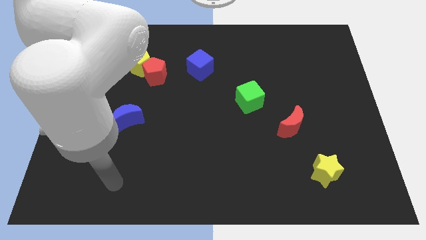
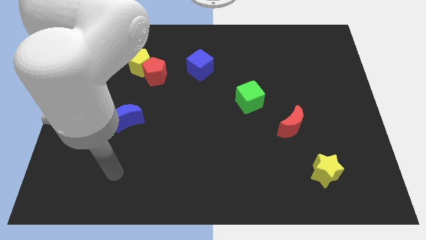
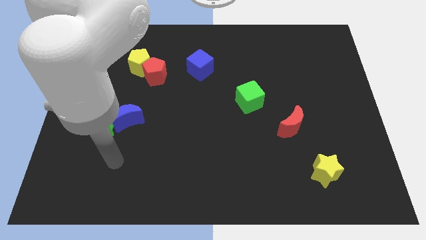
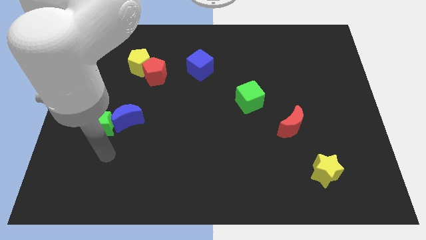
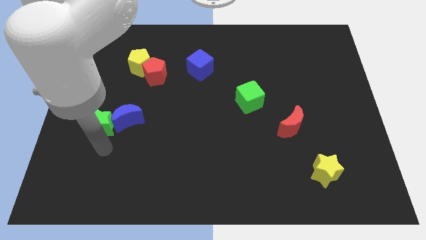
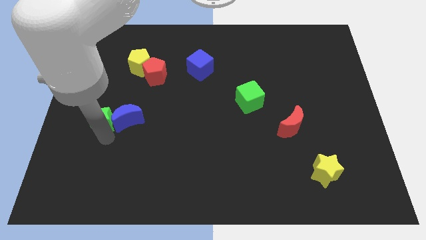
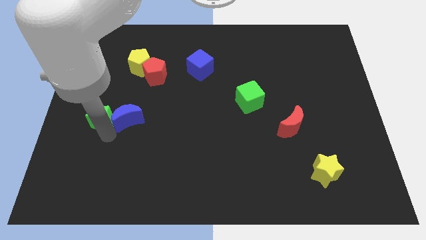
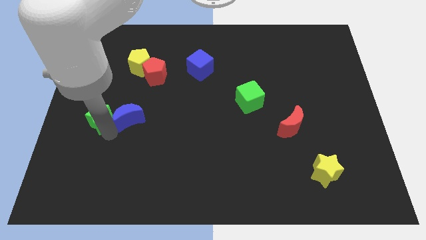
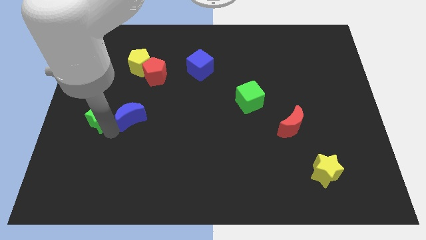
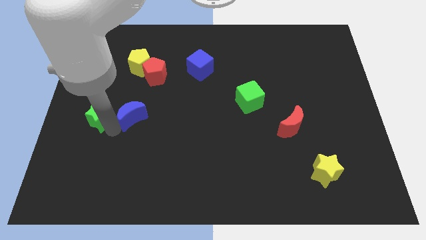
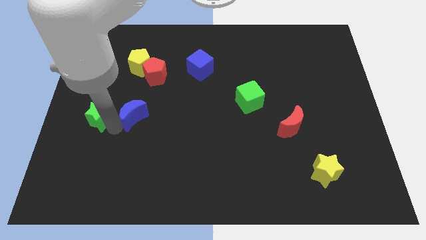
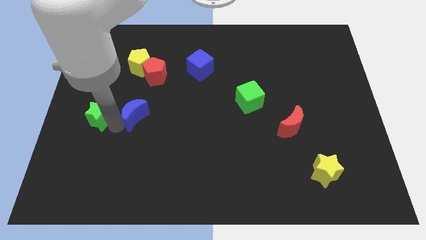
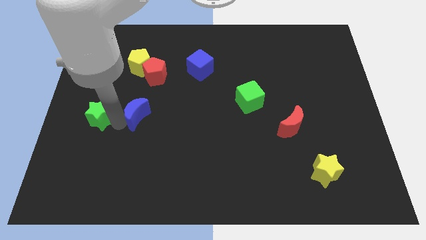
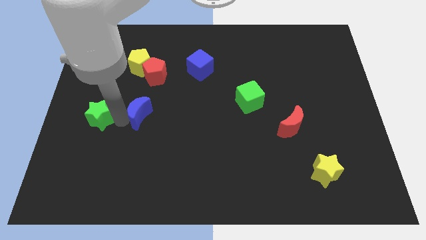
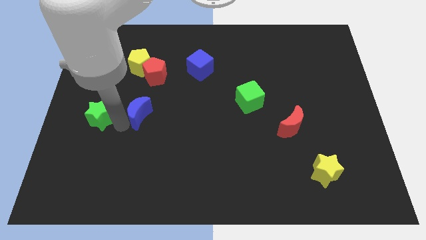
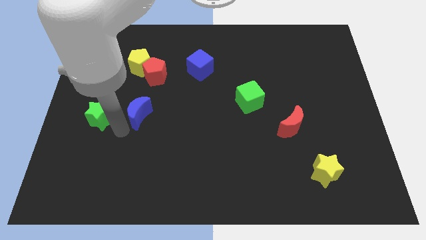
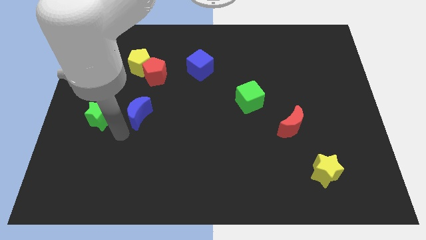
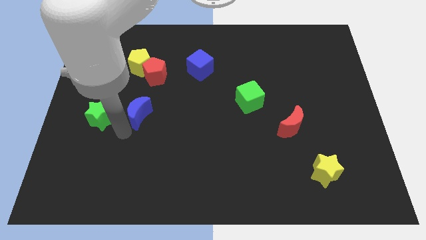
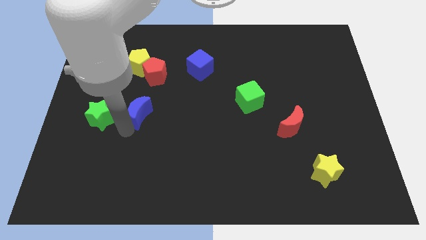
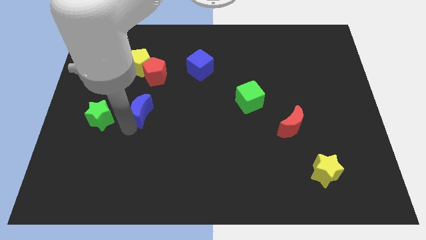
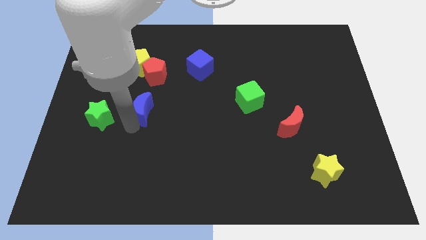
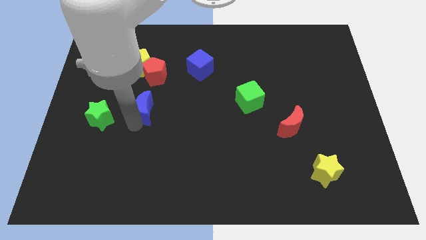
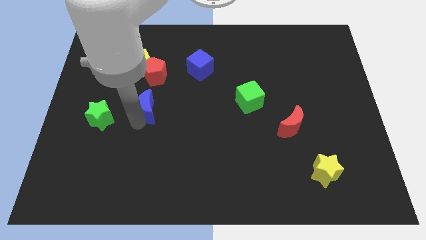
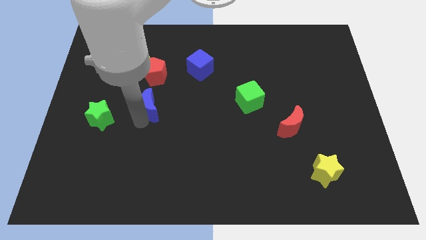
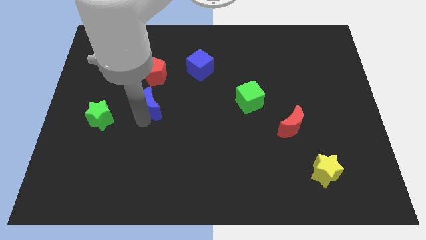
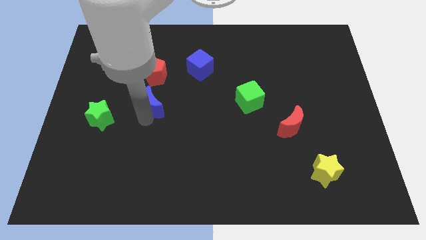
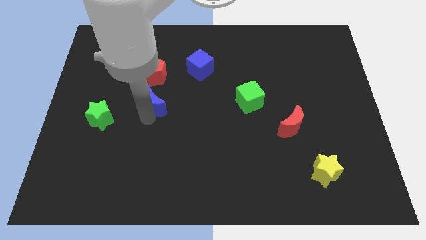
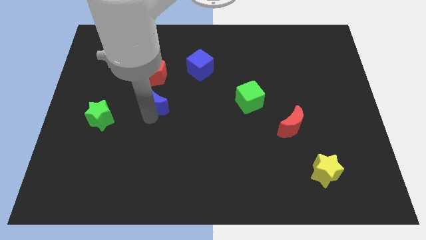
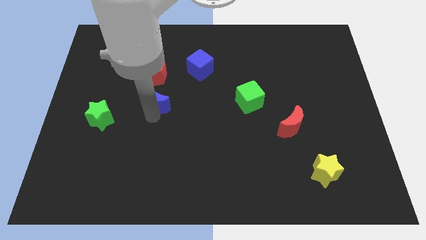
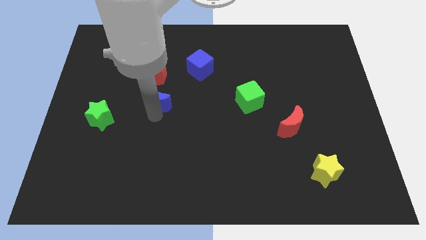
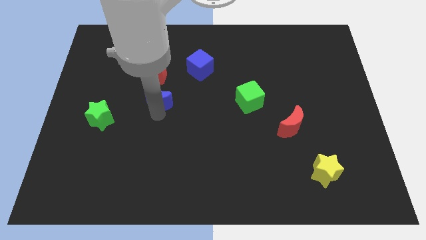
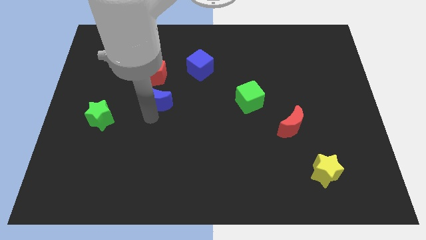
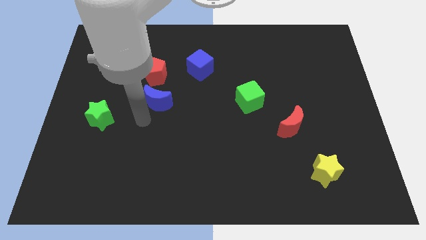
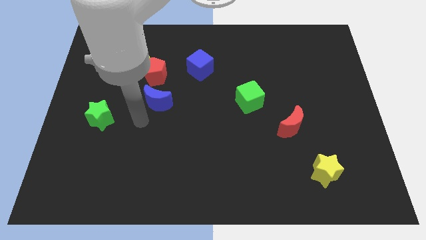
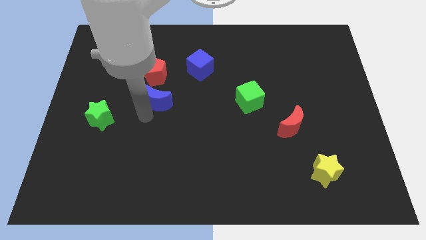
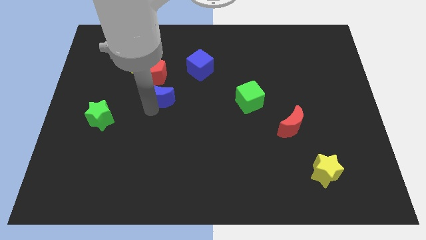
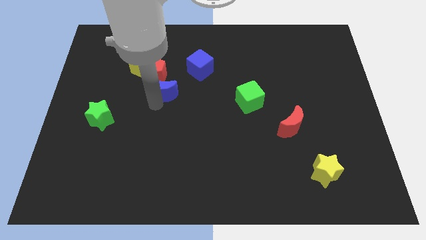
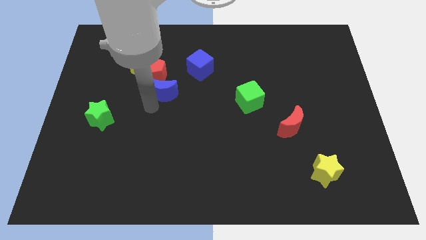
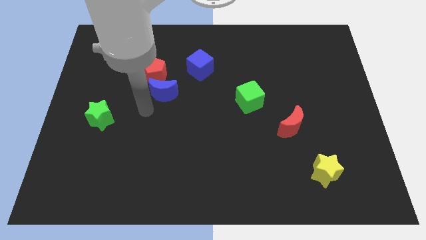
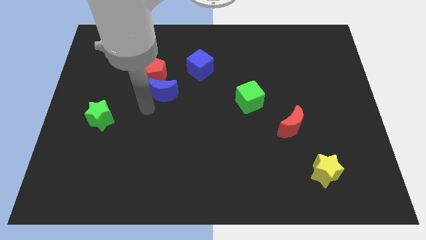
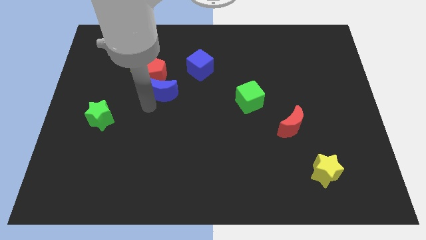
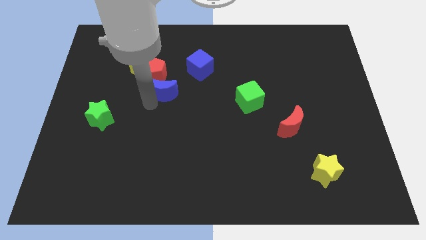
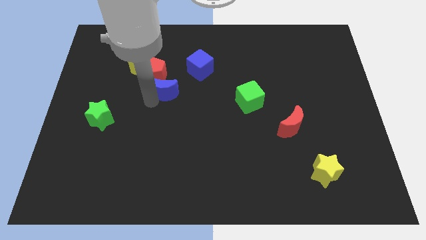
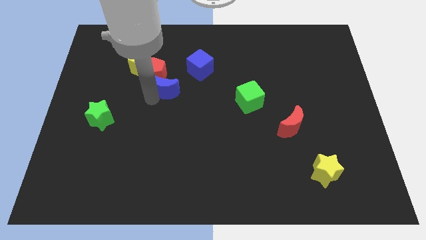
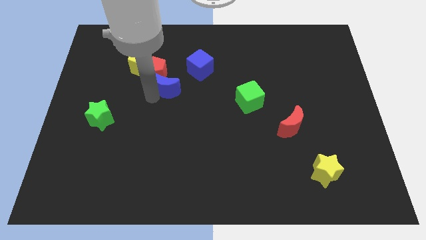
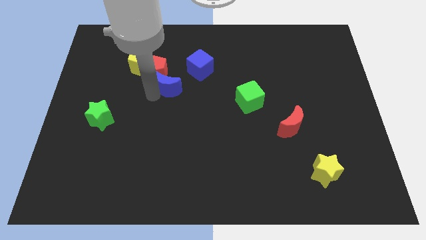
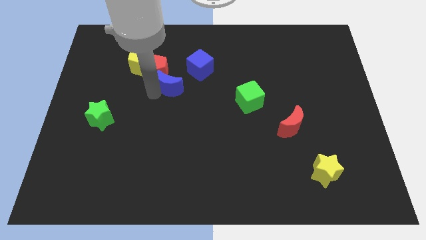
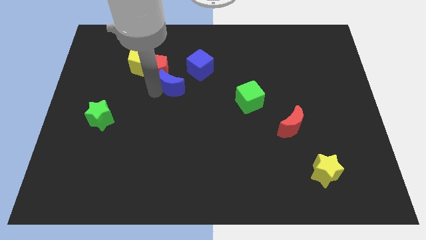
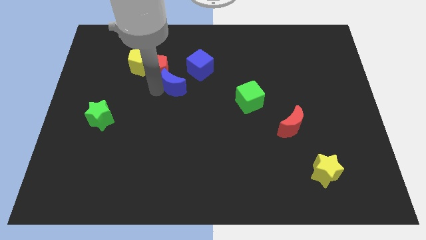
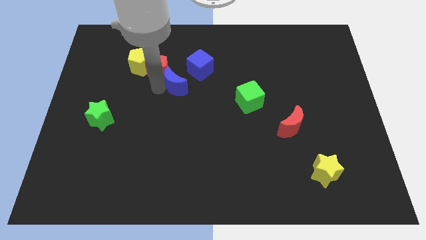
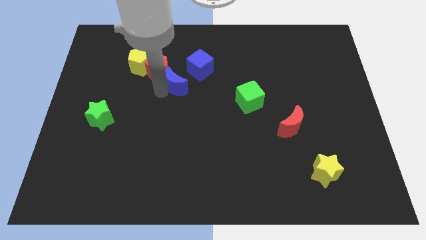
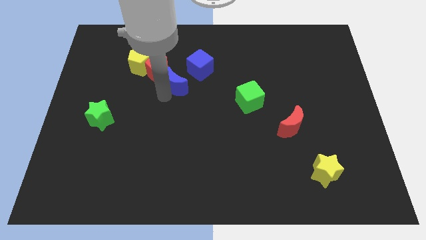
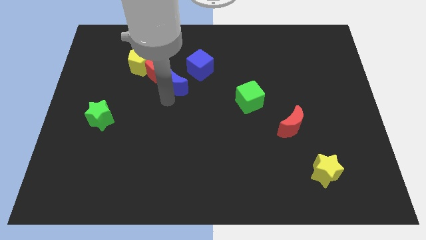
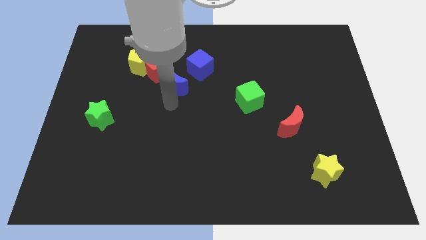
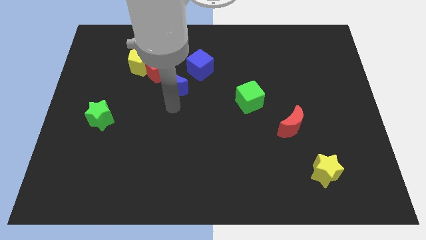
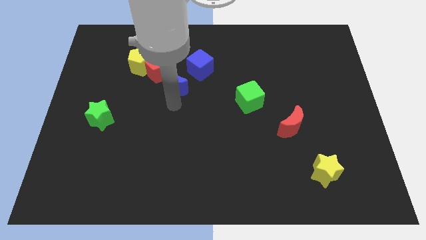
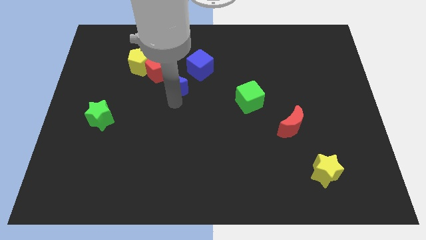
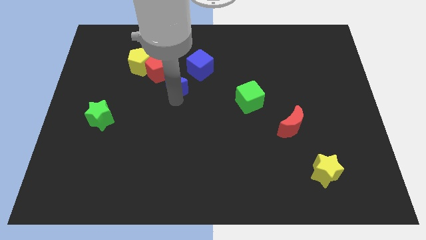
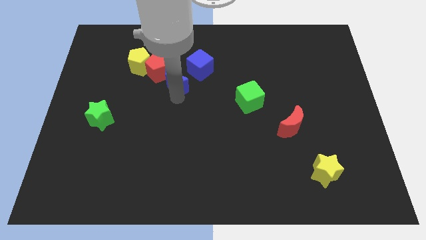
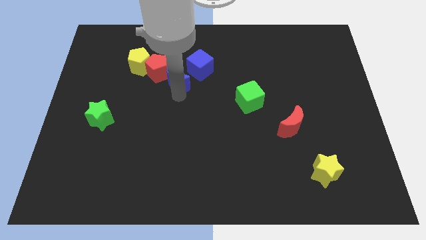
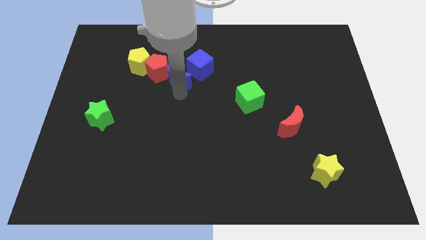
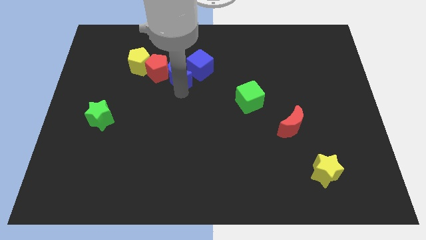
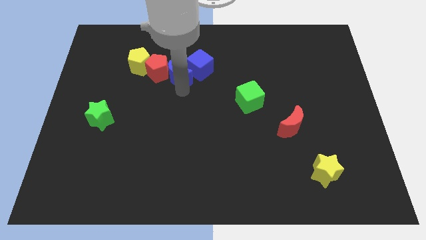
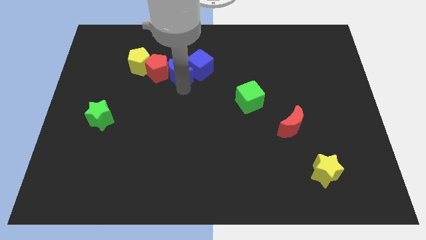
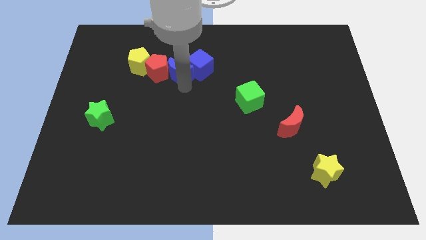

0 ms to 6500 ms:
move the blue moon to the top right side of the red pentagon

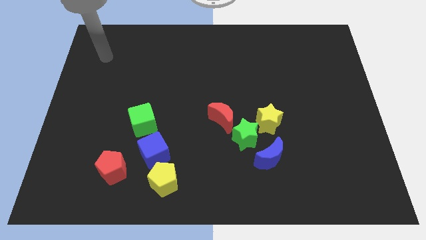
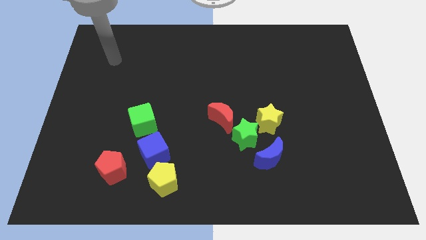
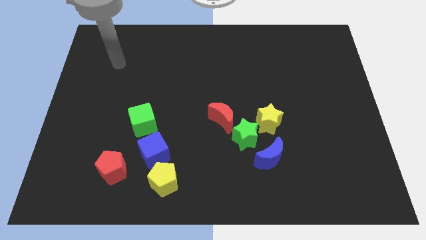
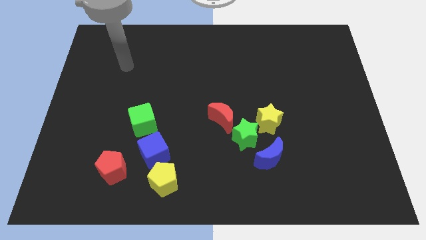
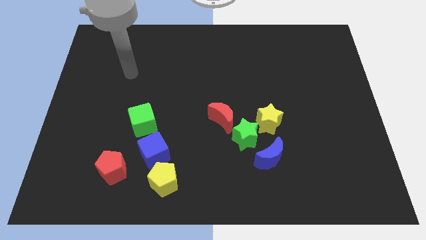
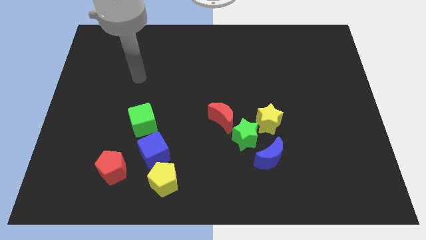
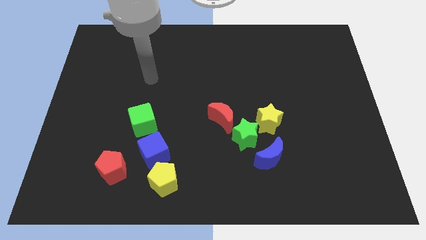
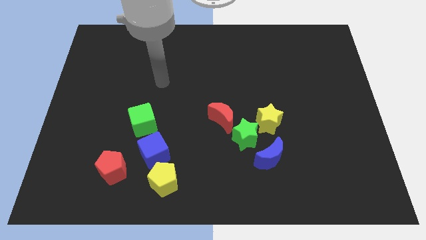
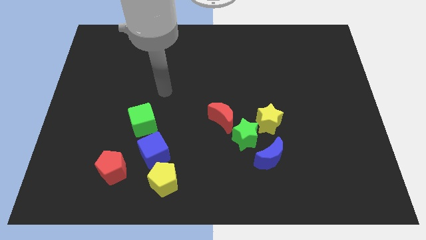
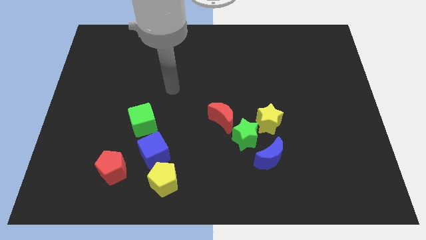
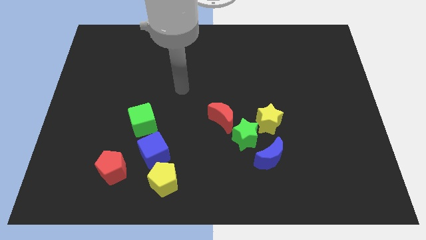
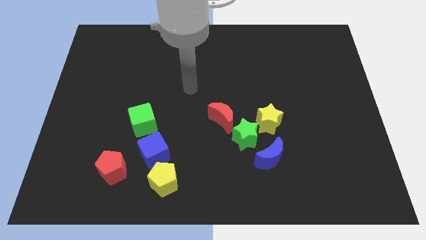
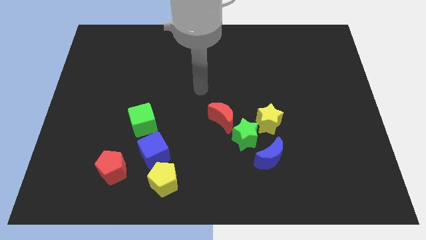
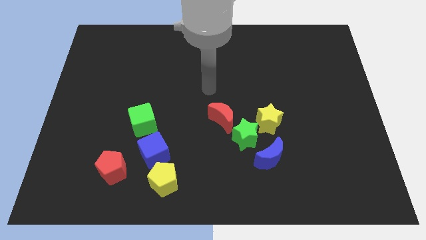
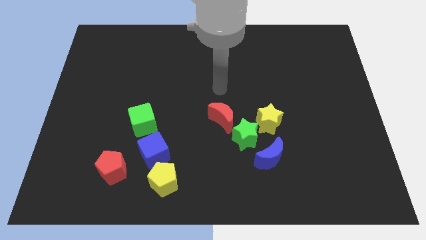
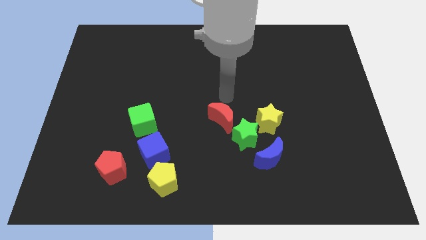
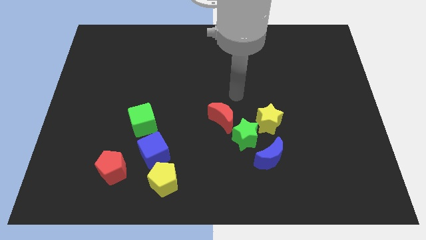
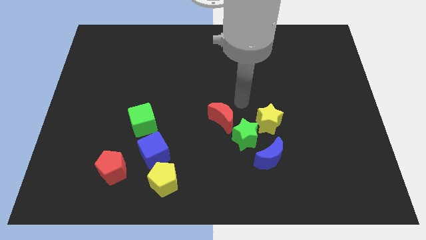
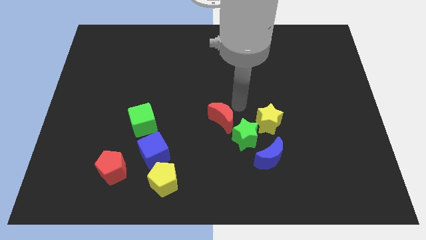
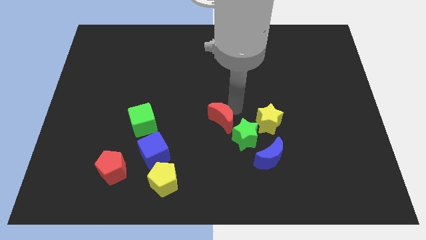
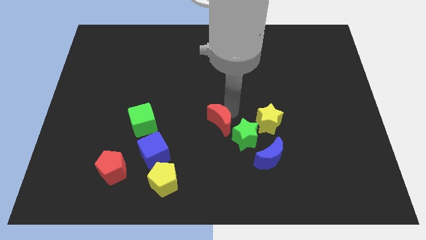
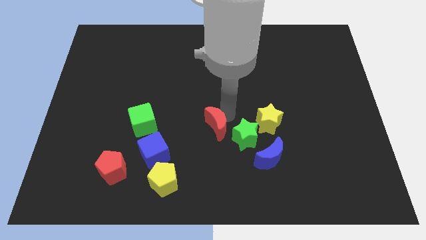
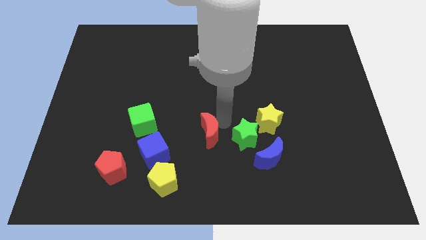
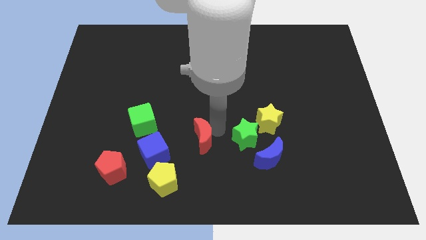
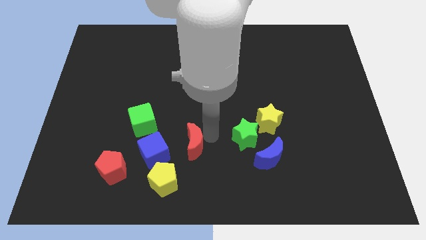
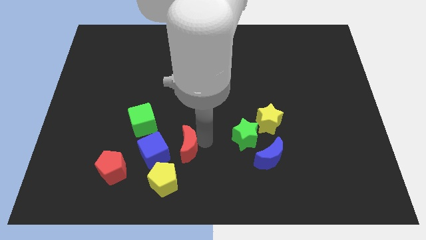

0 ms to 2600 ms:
push the red moon diagonally down and to the right of the green cube
